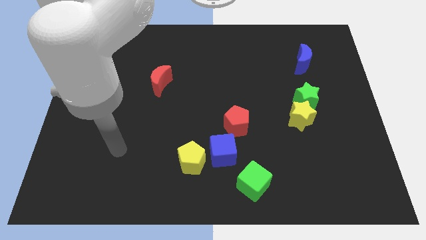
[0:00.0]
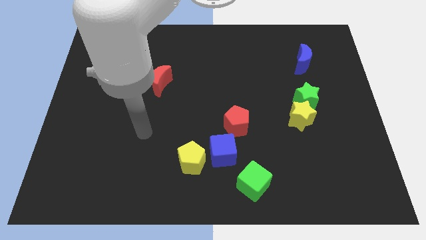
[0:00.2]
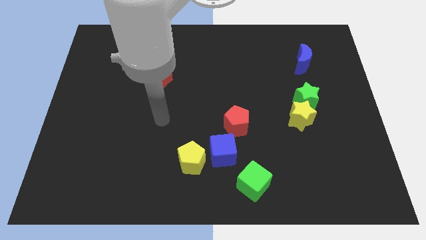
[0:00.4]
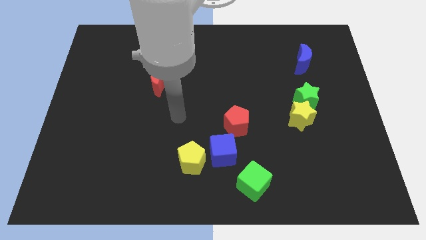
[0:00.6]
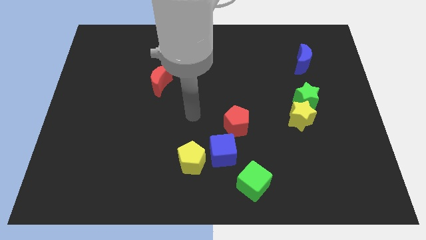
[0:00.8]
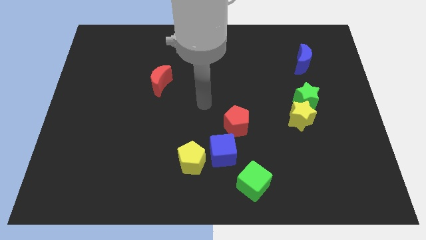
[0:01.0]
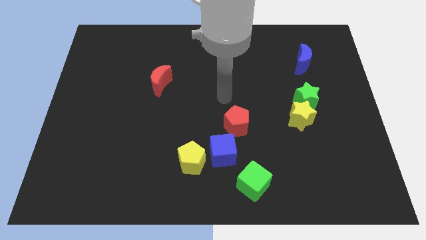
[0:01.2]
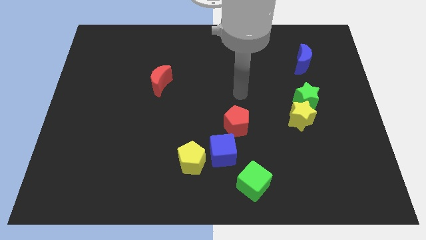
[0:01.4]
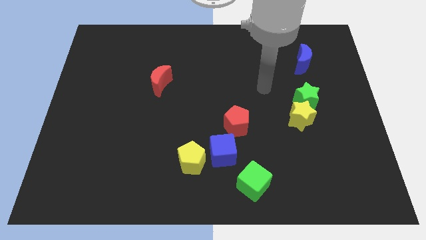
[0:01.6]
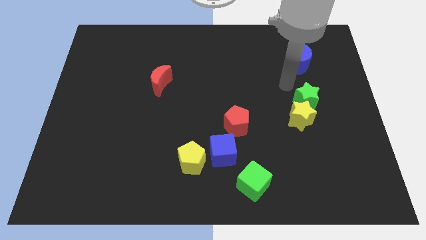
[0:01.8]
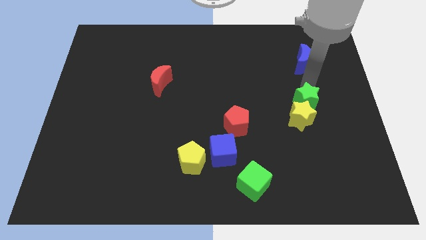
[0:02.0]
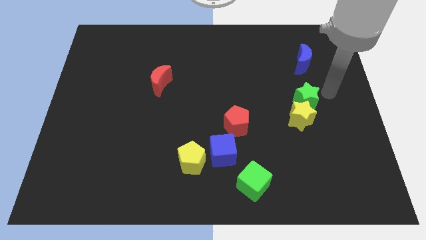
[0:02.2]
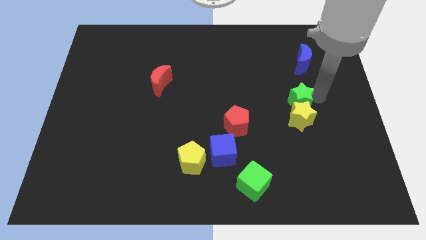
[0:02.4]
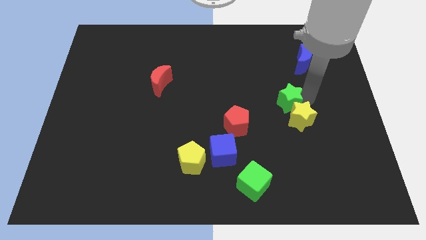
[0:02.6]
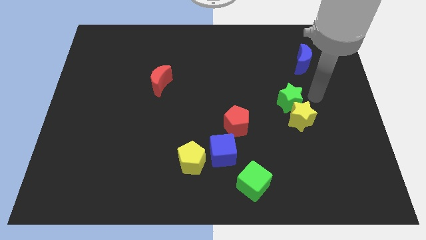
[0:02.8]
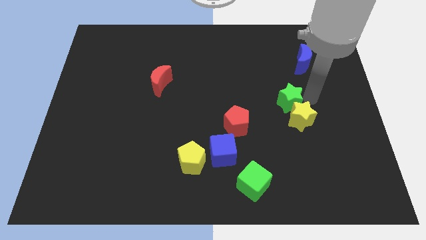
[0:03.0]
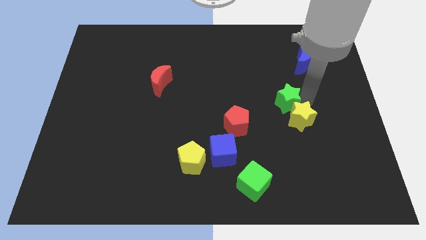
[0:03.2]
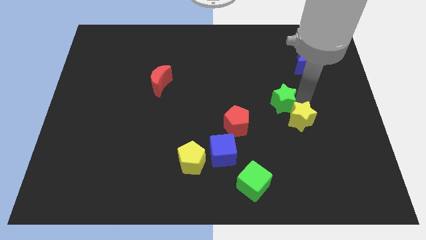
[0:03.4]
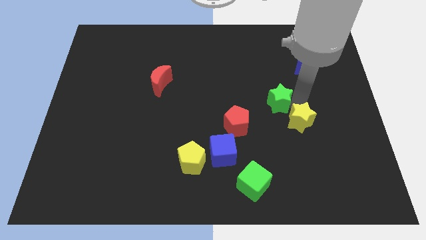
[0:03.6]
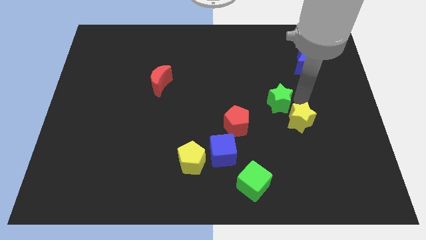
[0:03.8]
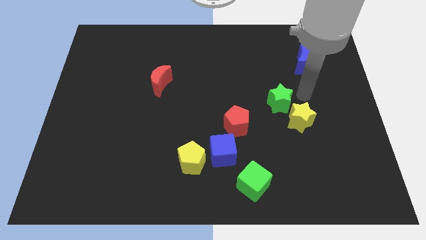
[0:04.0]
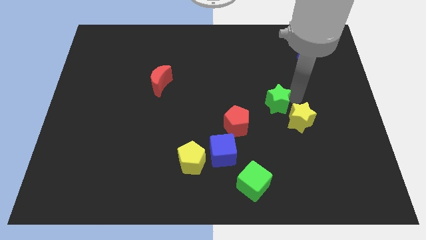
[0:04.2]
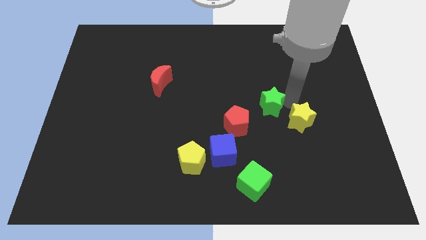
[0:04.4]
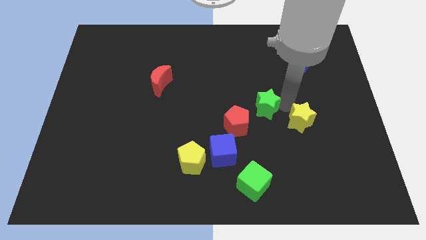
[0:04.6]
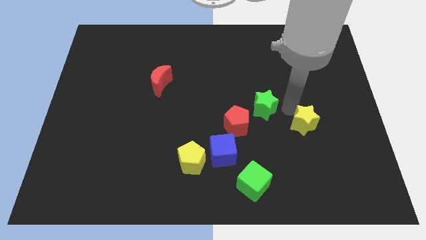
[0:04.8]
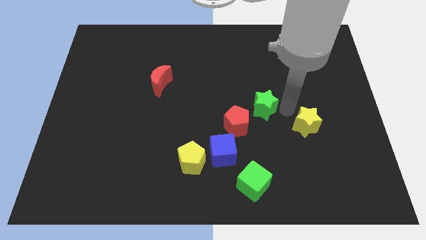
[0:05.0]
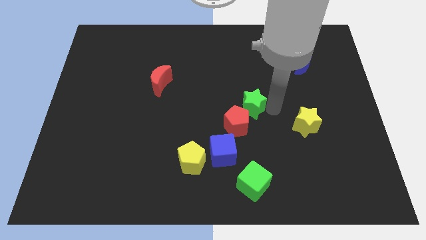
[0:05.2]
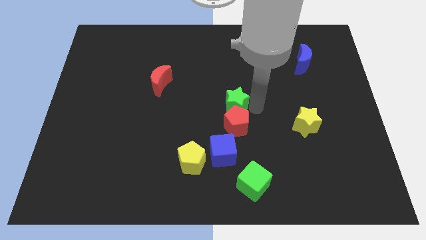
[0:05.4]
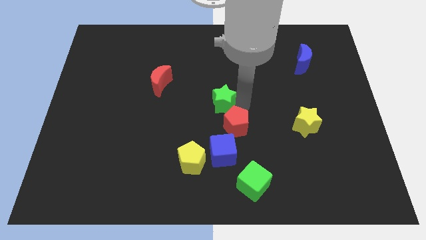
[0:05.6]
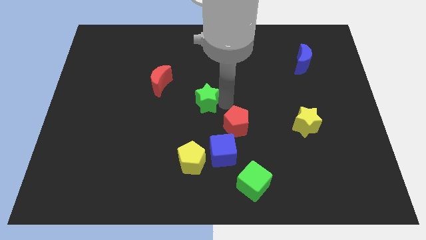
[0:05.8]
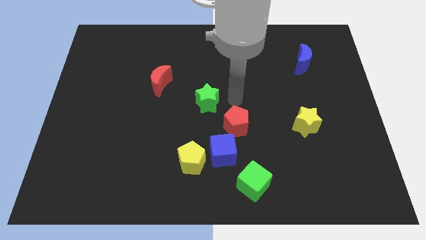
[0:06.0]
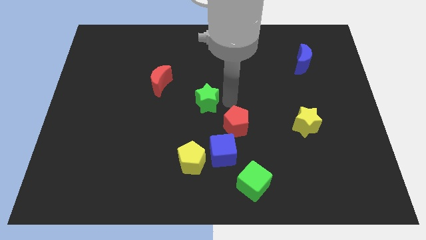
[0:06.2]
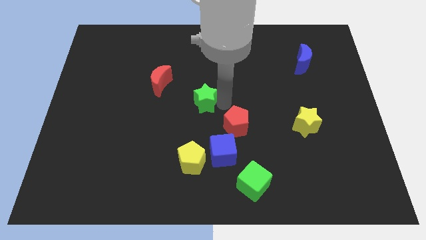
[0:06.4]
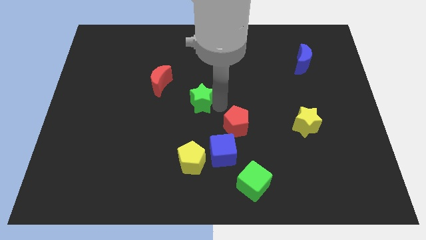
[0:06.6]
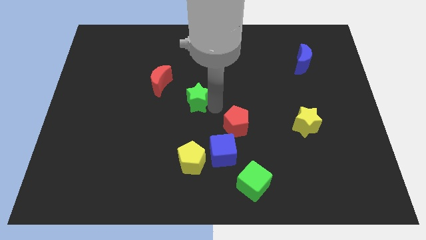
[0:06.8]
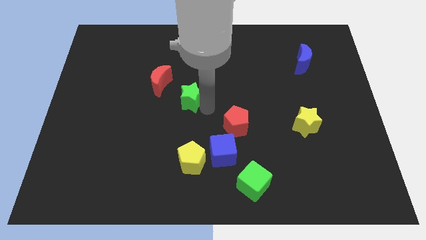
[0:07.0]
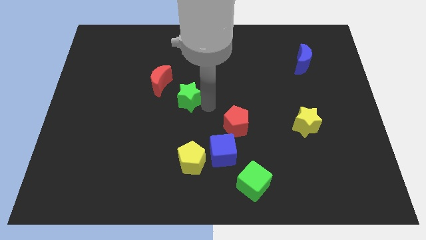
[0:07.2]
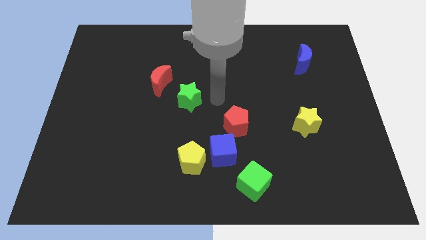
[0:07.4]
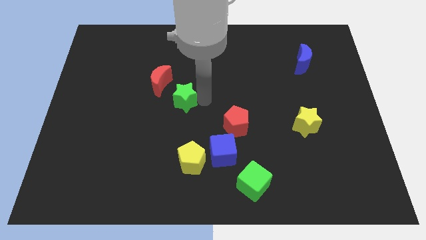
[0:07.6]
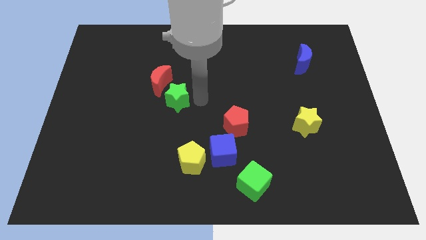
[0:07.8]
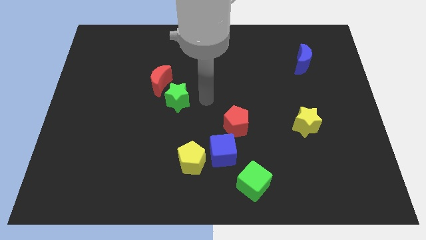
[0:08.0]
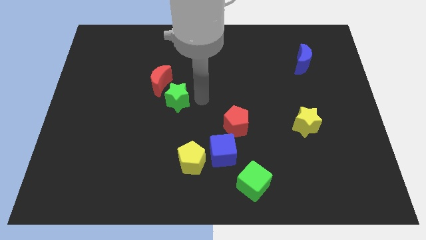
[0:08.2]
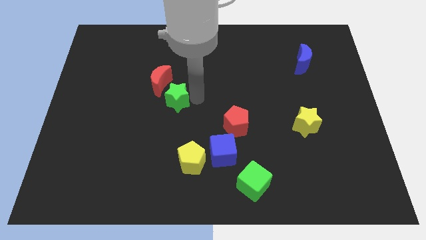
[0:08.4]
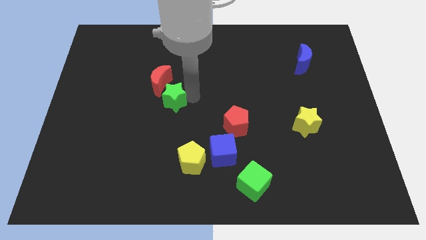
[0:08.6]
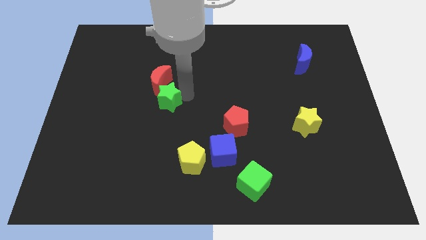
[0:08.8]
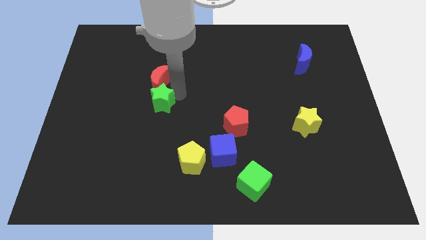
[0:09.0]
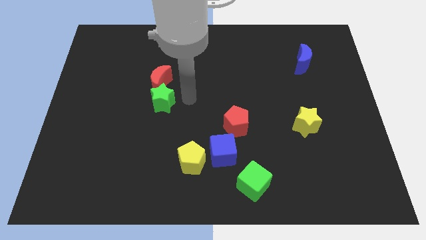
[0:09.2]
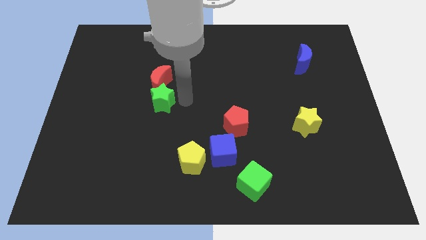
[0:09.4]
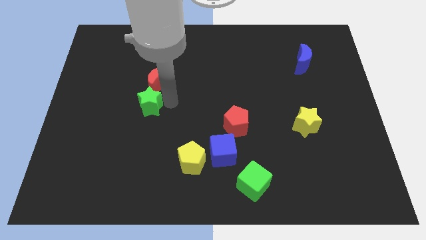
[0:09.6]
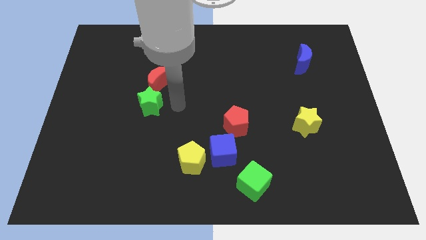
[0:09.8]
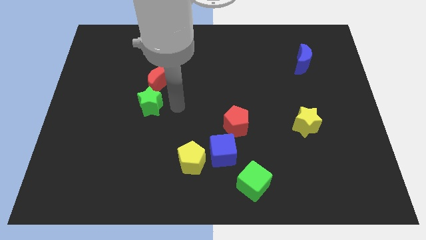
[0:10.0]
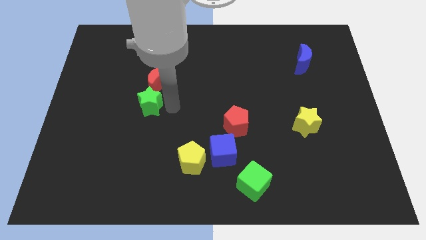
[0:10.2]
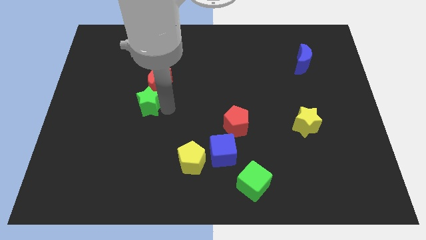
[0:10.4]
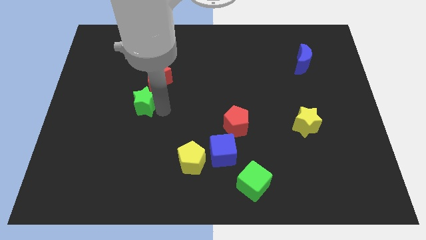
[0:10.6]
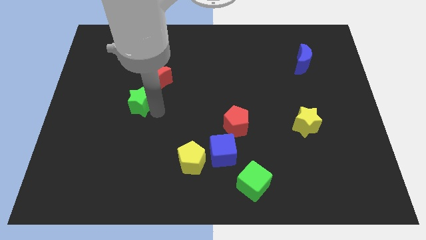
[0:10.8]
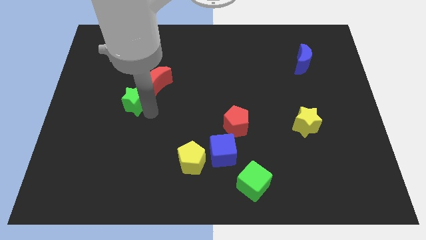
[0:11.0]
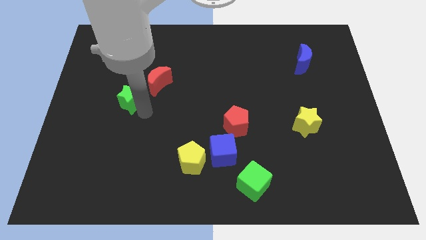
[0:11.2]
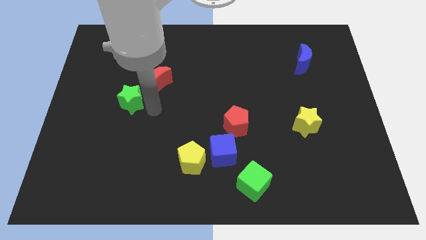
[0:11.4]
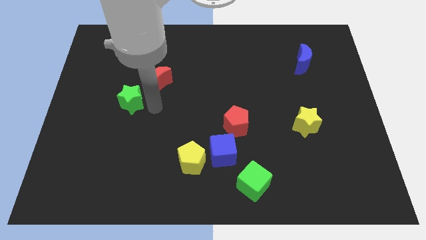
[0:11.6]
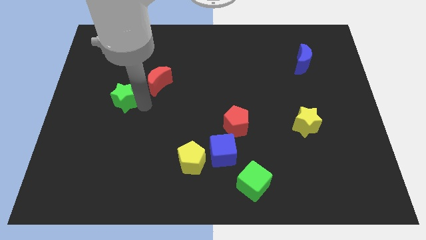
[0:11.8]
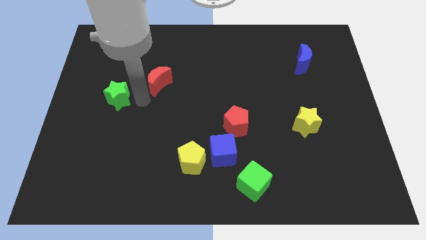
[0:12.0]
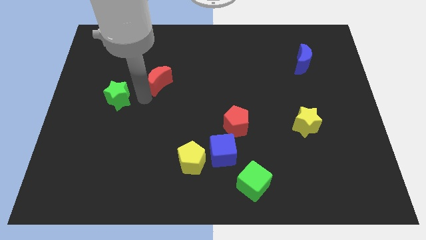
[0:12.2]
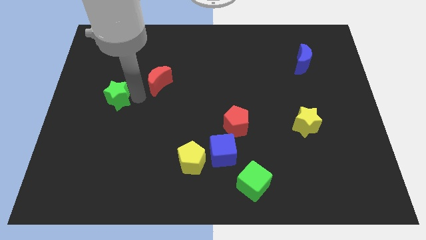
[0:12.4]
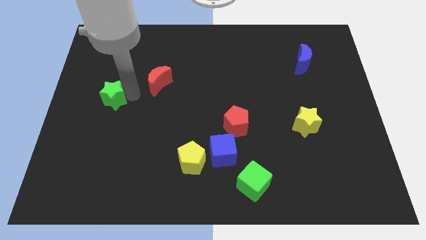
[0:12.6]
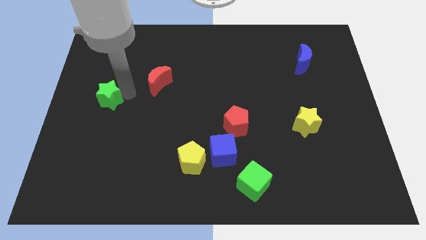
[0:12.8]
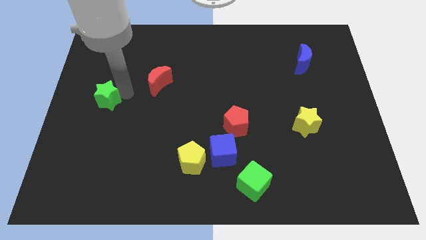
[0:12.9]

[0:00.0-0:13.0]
push the green star to the left side of the board
